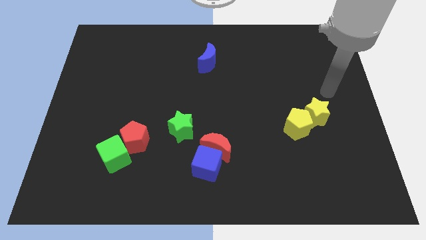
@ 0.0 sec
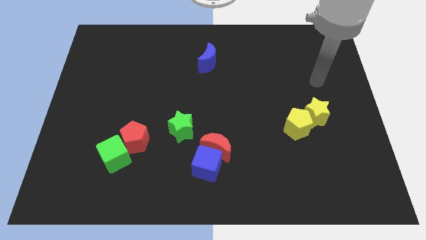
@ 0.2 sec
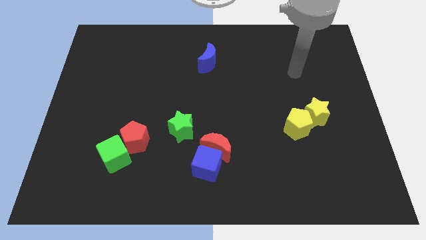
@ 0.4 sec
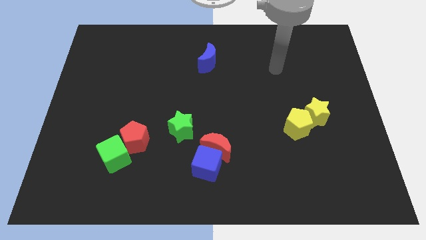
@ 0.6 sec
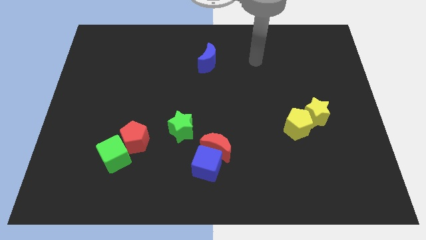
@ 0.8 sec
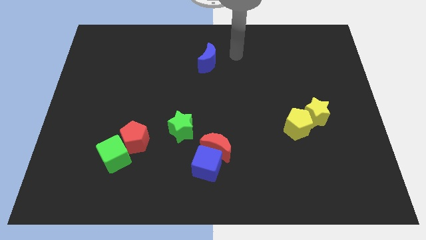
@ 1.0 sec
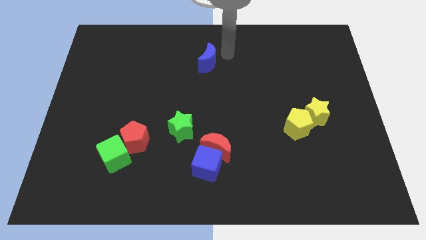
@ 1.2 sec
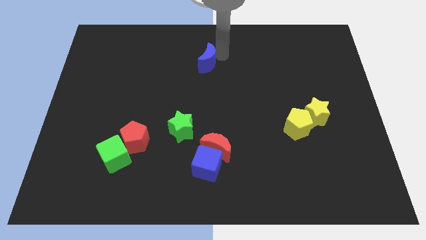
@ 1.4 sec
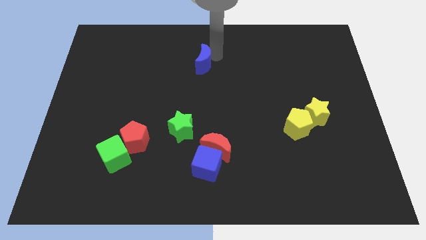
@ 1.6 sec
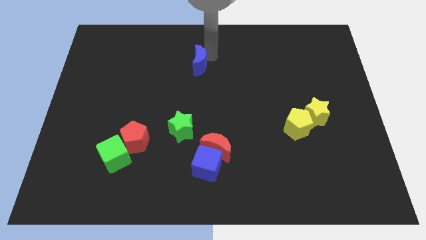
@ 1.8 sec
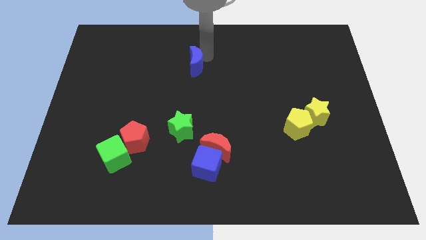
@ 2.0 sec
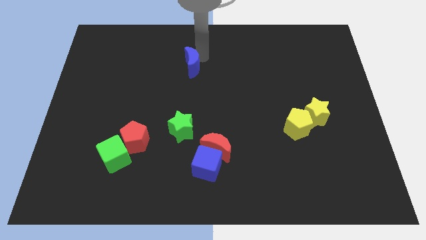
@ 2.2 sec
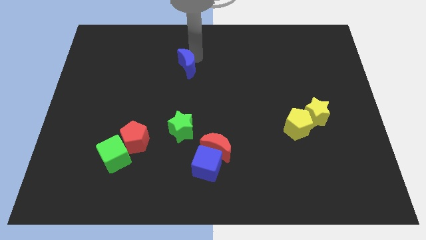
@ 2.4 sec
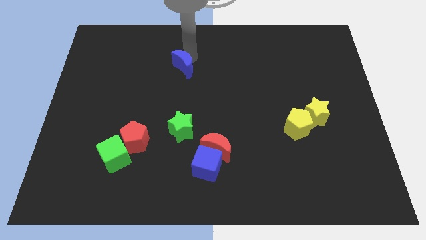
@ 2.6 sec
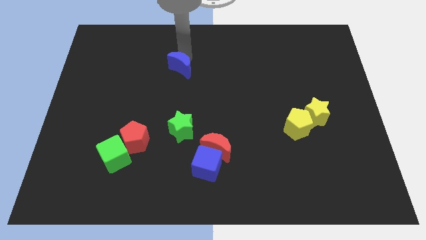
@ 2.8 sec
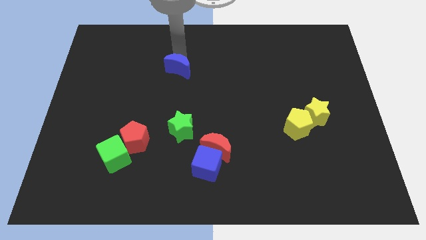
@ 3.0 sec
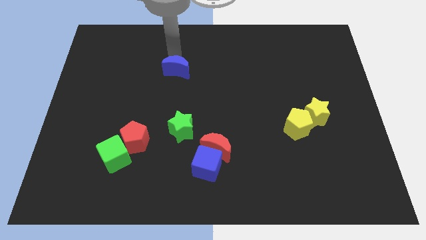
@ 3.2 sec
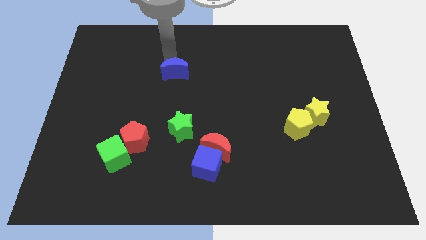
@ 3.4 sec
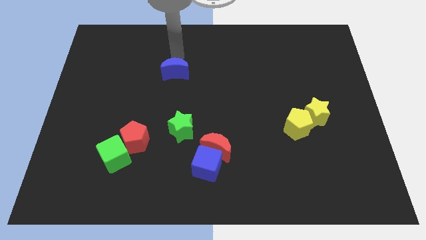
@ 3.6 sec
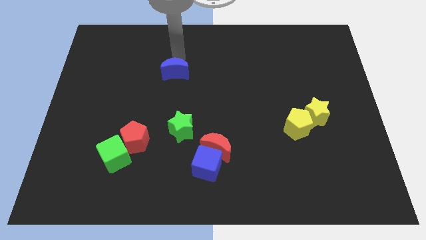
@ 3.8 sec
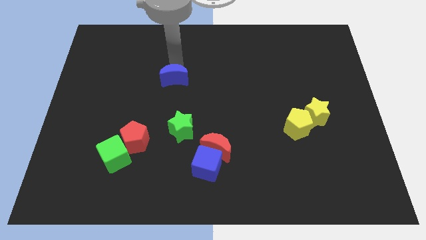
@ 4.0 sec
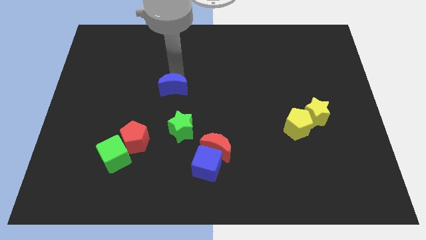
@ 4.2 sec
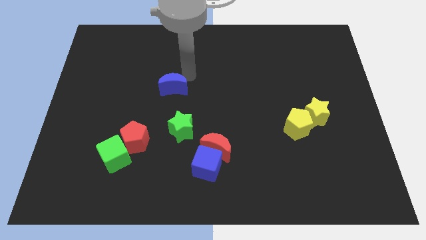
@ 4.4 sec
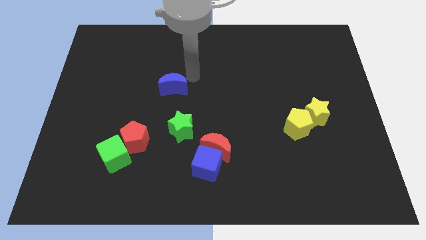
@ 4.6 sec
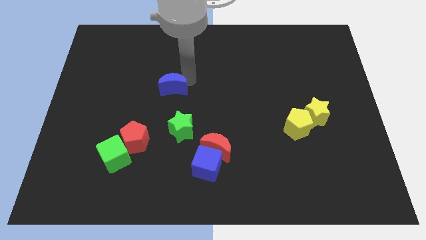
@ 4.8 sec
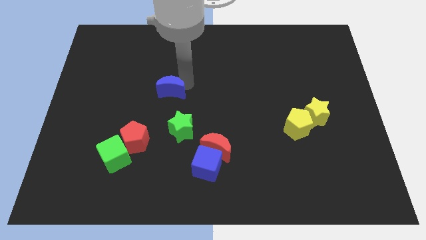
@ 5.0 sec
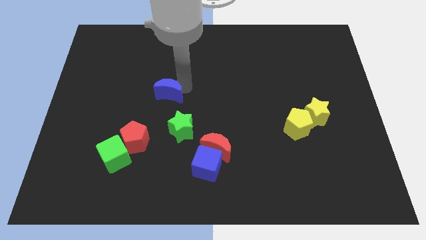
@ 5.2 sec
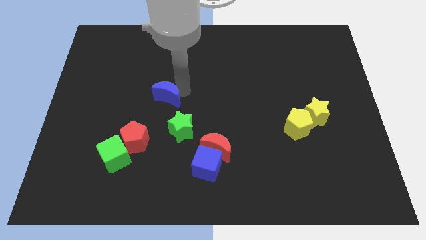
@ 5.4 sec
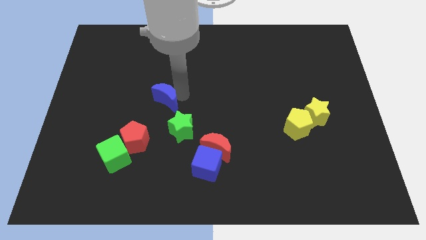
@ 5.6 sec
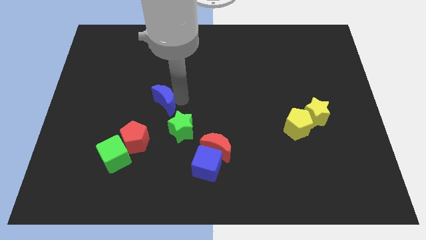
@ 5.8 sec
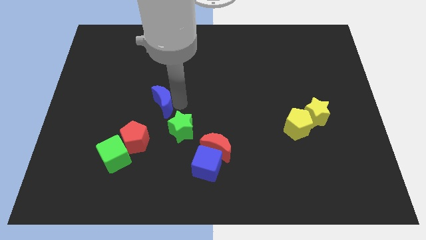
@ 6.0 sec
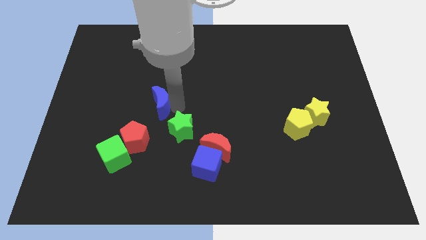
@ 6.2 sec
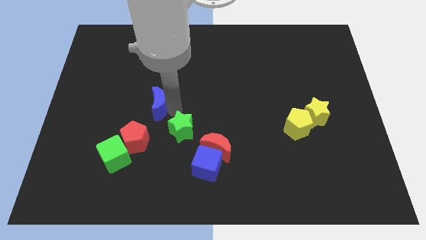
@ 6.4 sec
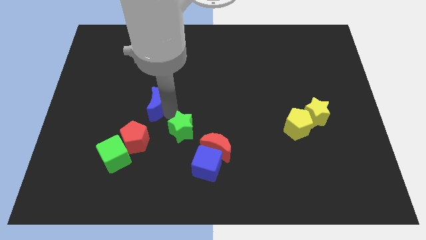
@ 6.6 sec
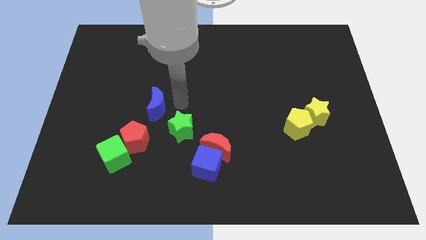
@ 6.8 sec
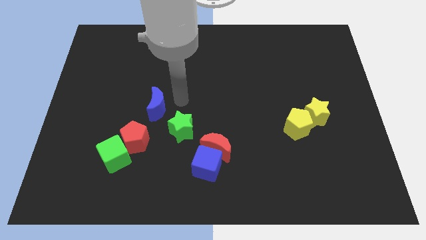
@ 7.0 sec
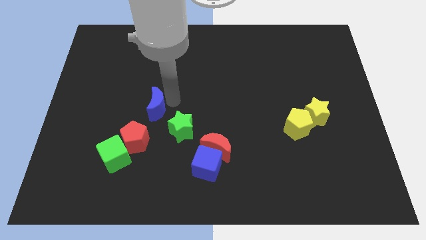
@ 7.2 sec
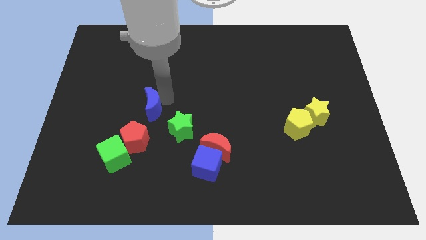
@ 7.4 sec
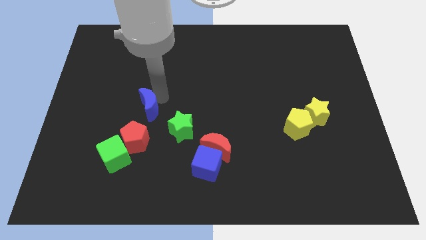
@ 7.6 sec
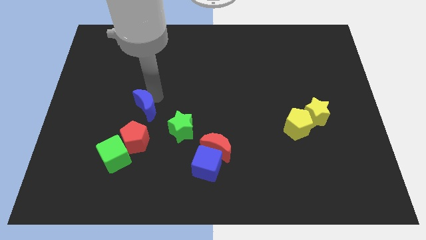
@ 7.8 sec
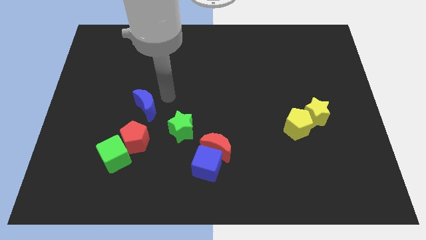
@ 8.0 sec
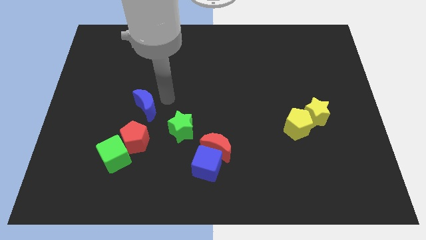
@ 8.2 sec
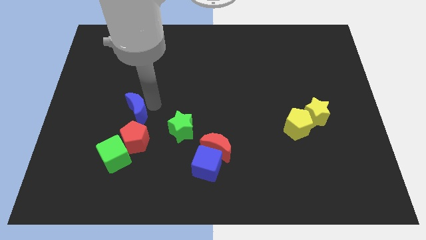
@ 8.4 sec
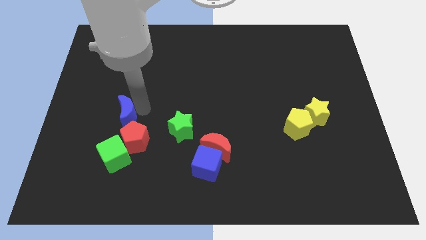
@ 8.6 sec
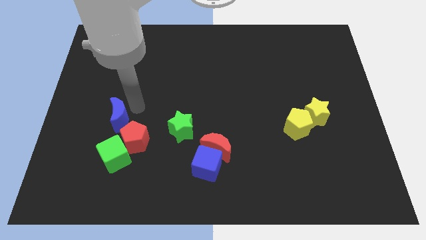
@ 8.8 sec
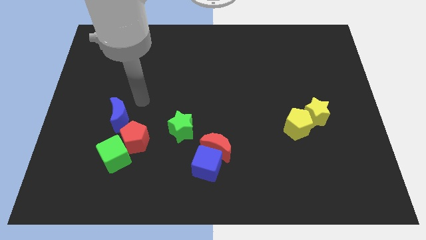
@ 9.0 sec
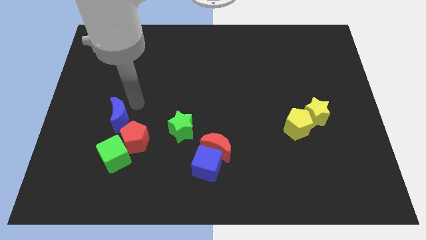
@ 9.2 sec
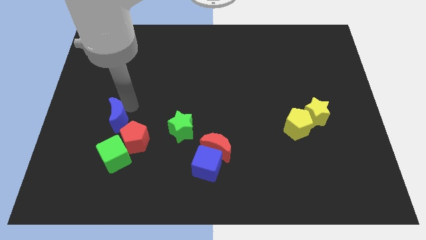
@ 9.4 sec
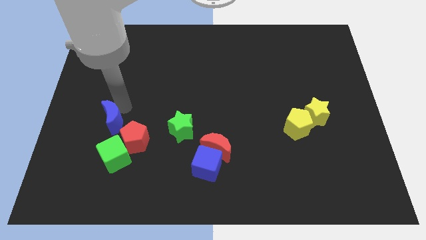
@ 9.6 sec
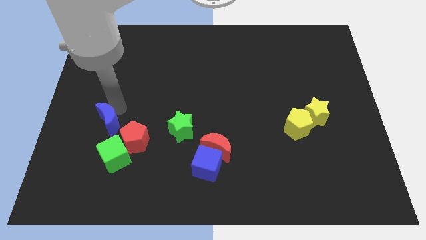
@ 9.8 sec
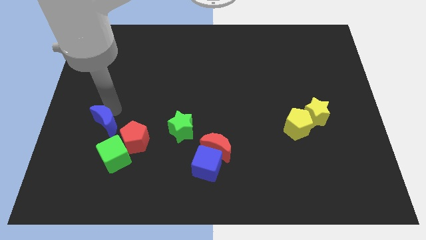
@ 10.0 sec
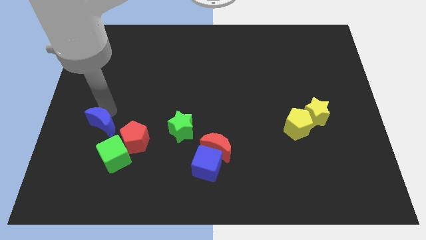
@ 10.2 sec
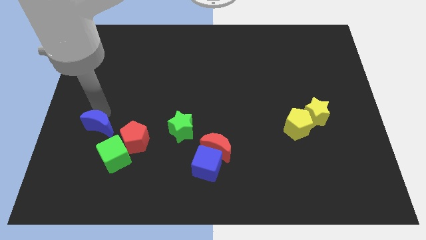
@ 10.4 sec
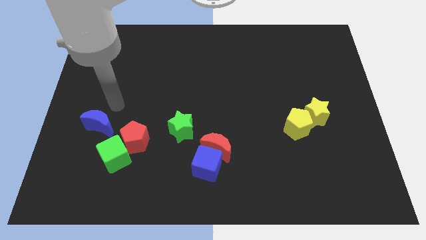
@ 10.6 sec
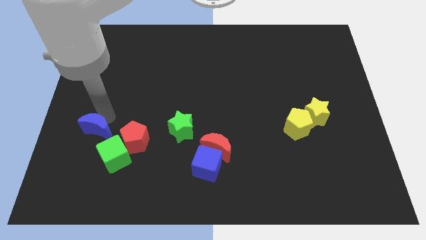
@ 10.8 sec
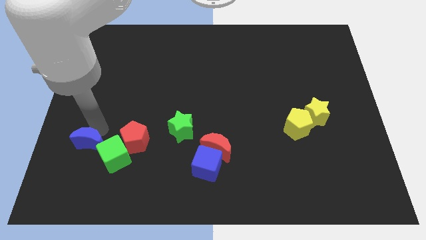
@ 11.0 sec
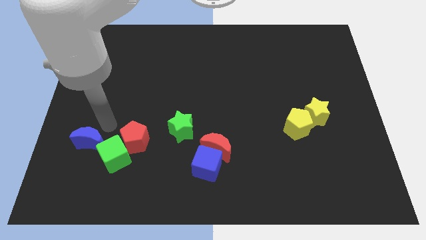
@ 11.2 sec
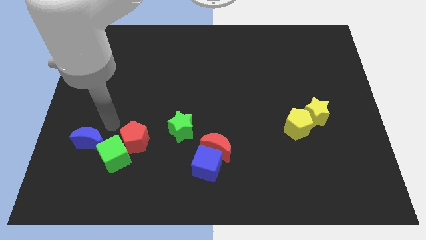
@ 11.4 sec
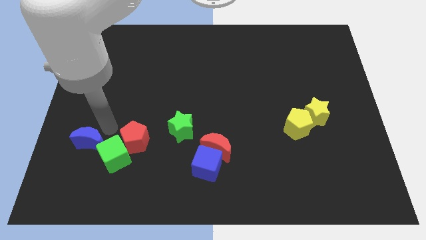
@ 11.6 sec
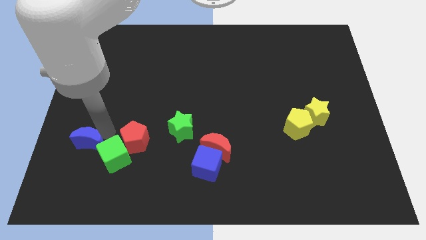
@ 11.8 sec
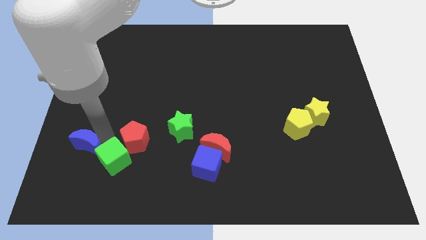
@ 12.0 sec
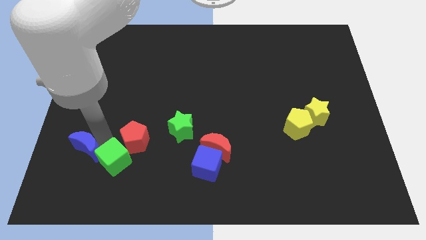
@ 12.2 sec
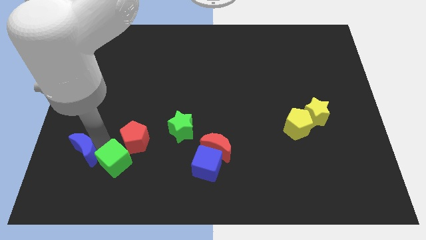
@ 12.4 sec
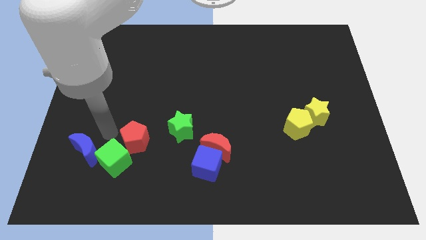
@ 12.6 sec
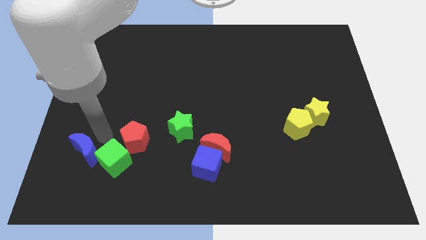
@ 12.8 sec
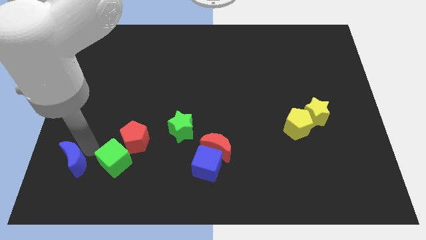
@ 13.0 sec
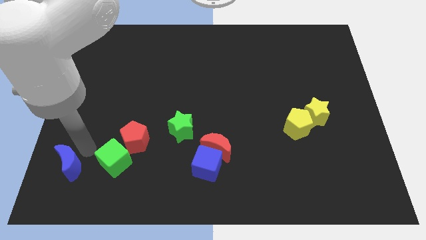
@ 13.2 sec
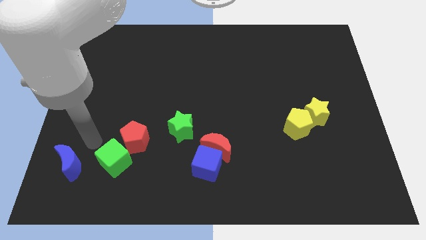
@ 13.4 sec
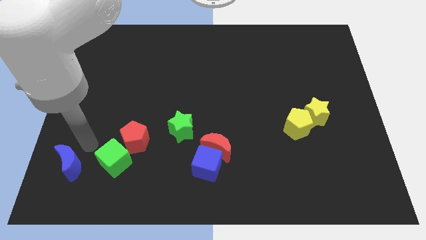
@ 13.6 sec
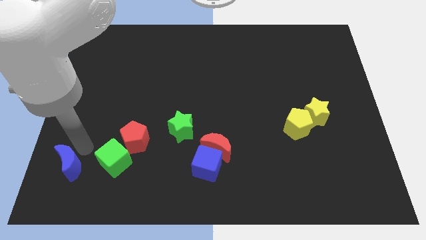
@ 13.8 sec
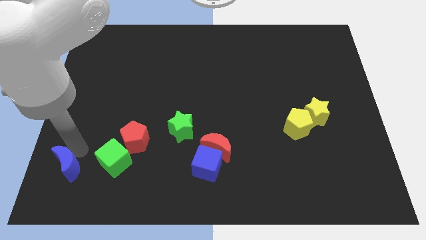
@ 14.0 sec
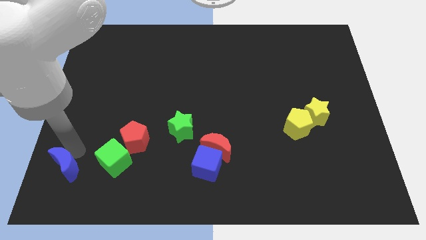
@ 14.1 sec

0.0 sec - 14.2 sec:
move the blue moon to the bottom left corner
